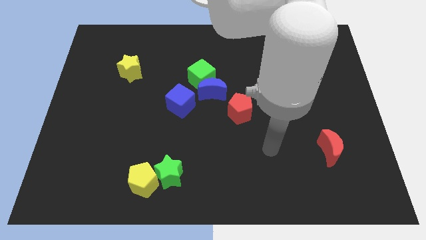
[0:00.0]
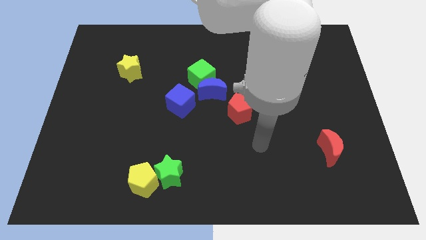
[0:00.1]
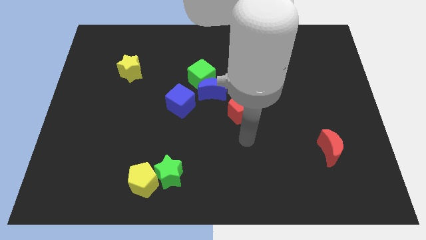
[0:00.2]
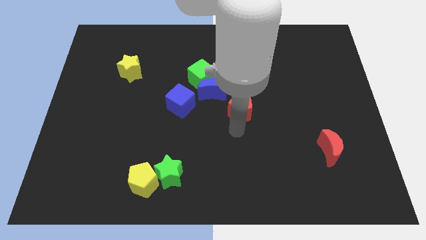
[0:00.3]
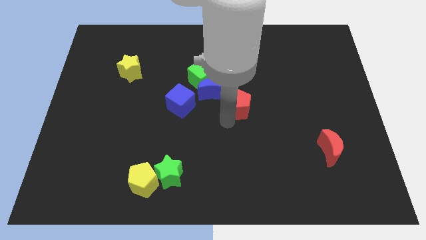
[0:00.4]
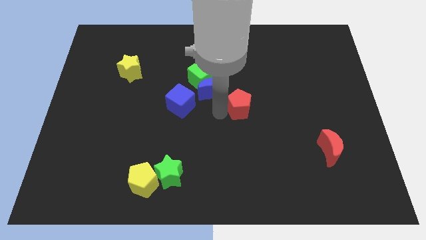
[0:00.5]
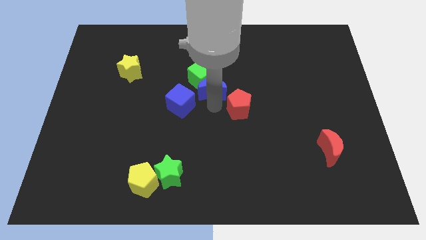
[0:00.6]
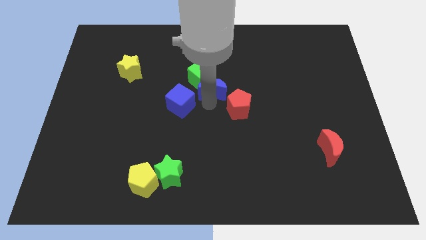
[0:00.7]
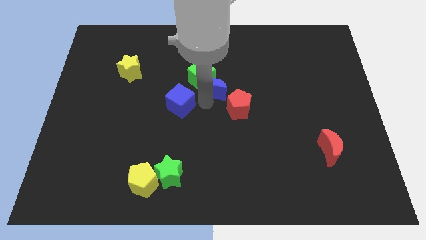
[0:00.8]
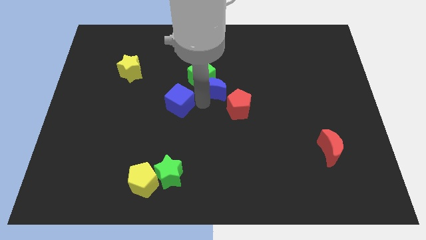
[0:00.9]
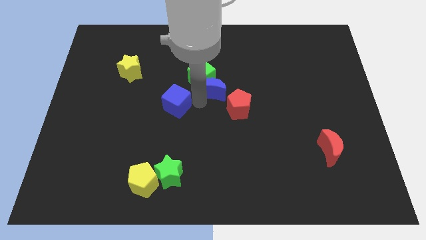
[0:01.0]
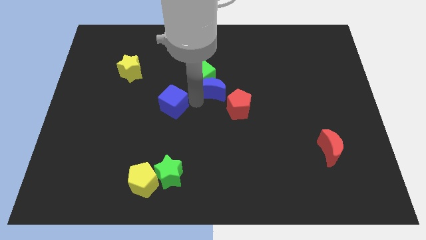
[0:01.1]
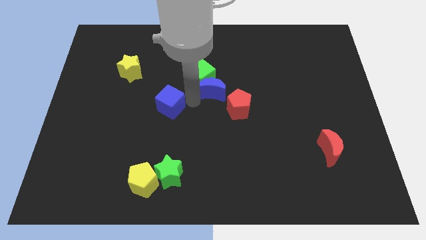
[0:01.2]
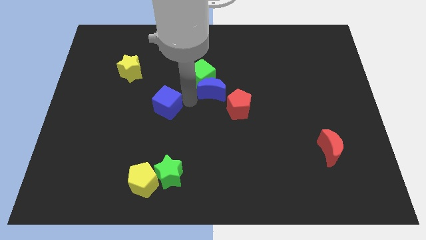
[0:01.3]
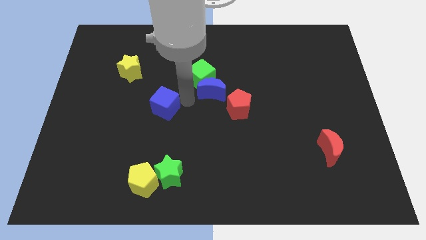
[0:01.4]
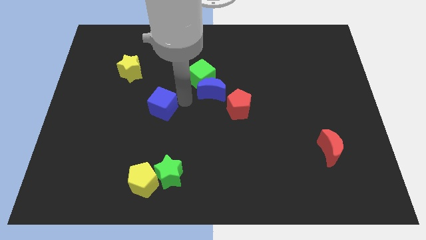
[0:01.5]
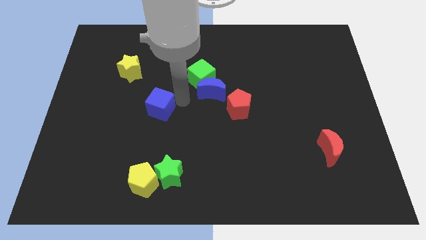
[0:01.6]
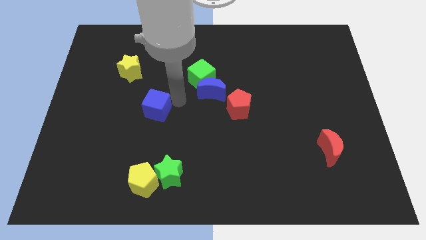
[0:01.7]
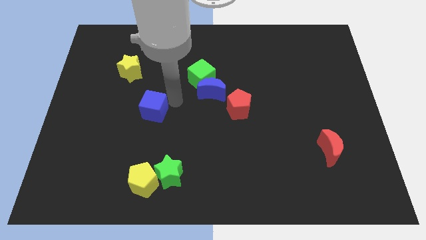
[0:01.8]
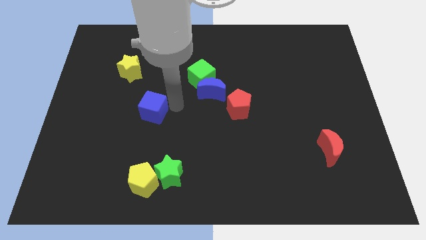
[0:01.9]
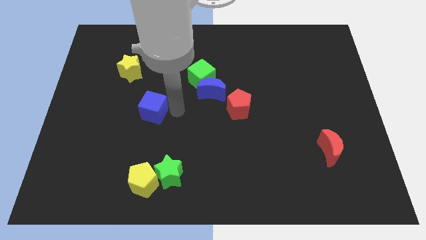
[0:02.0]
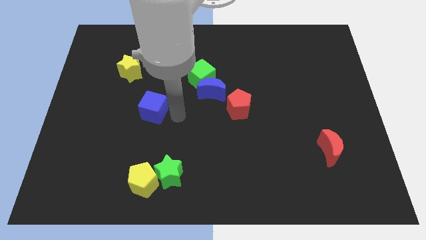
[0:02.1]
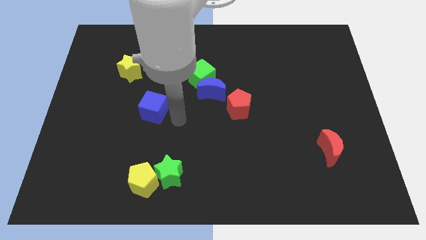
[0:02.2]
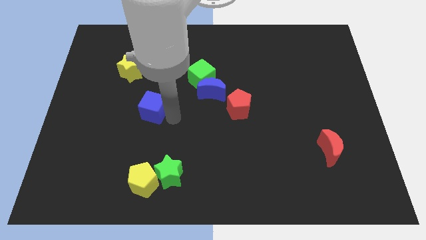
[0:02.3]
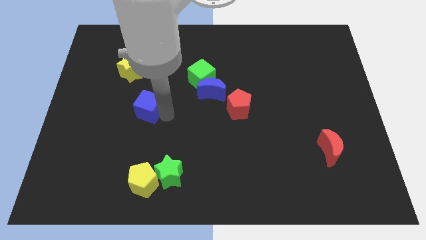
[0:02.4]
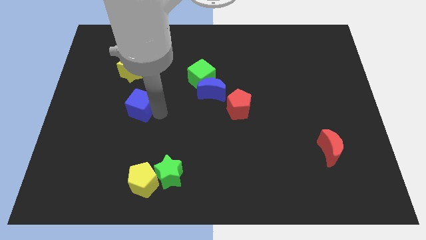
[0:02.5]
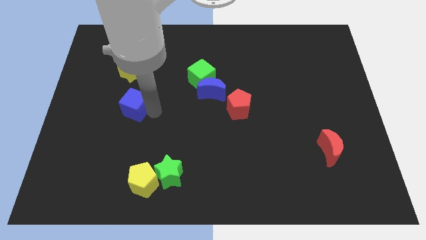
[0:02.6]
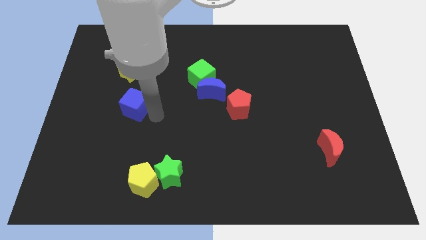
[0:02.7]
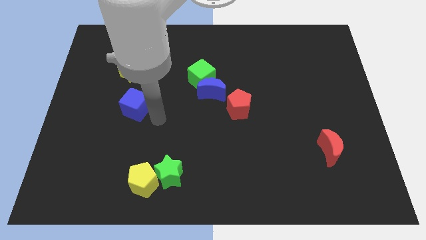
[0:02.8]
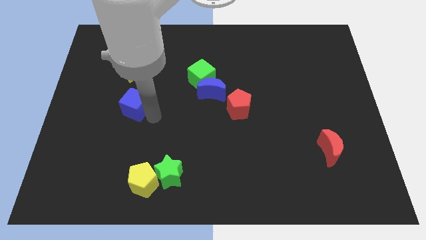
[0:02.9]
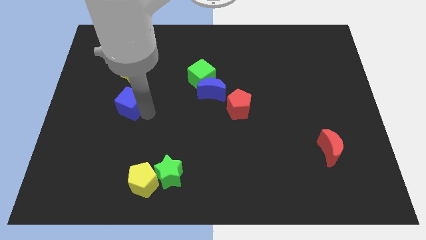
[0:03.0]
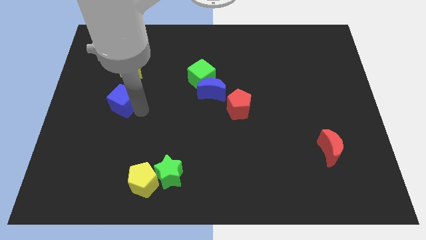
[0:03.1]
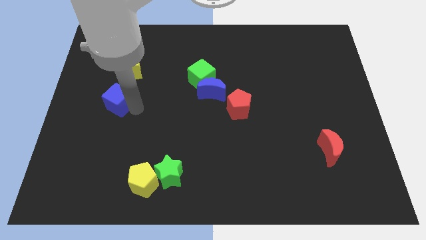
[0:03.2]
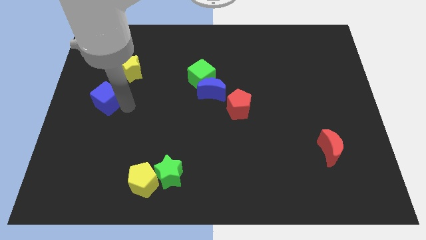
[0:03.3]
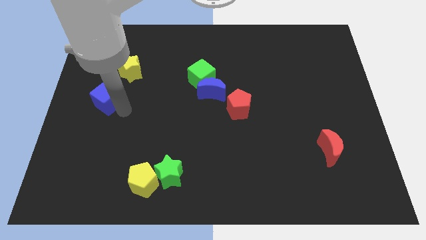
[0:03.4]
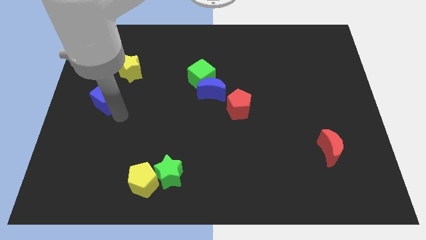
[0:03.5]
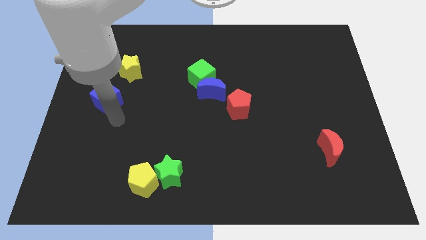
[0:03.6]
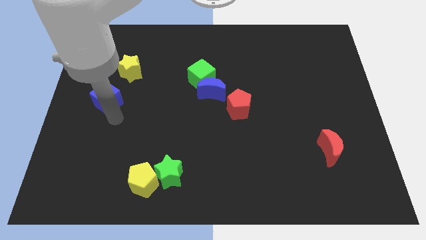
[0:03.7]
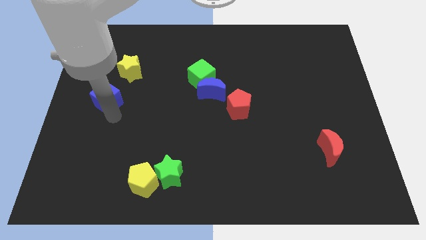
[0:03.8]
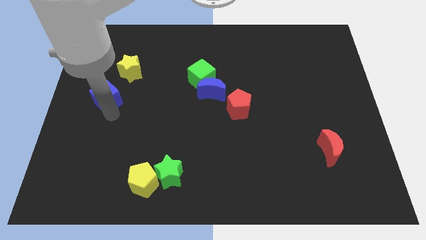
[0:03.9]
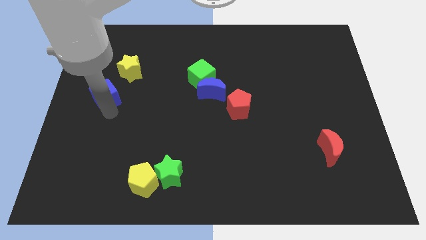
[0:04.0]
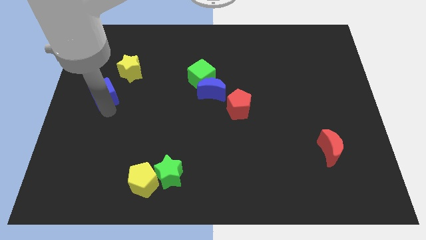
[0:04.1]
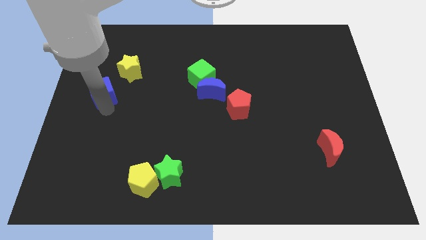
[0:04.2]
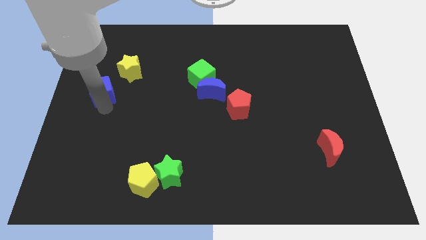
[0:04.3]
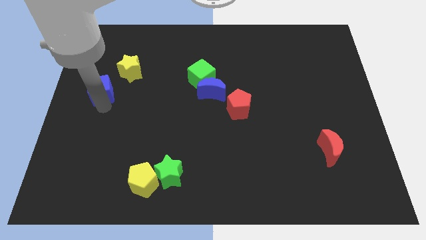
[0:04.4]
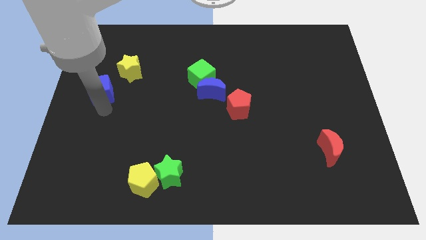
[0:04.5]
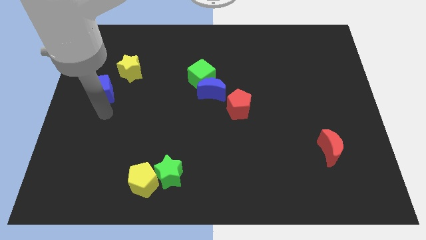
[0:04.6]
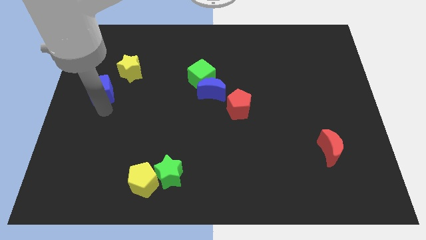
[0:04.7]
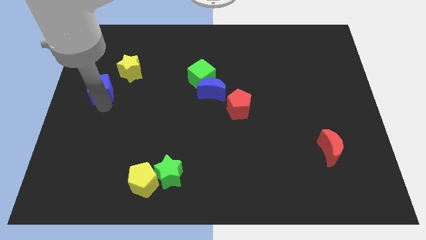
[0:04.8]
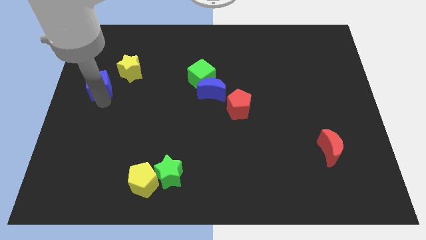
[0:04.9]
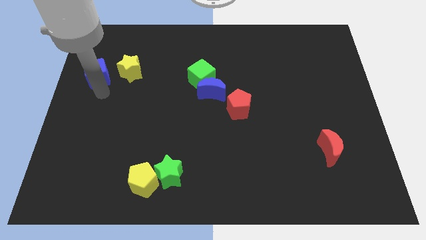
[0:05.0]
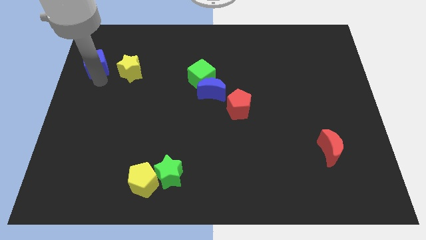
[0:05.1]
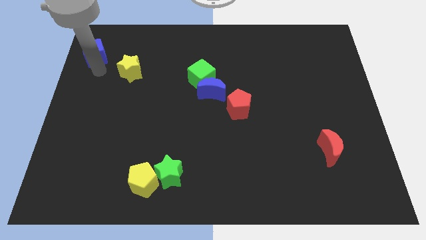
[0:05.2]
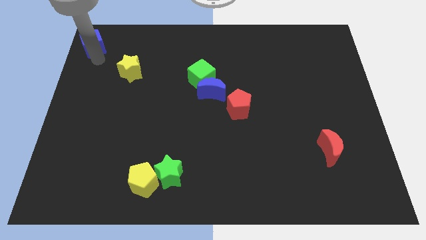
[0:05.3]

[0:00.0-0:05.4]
move the blue cube to the upper left corner
